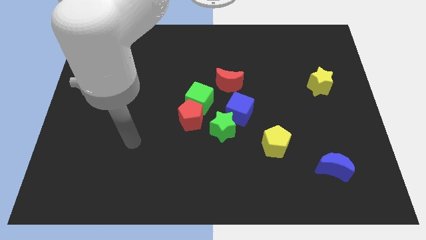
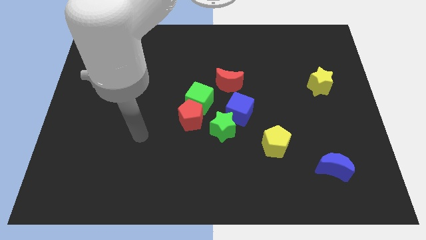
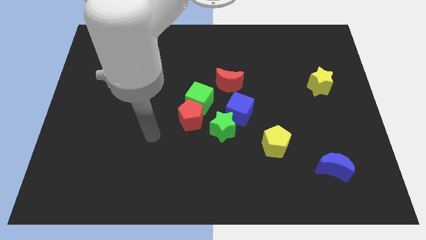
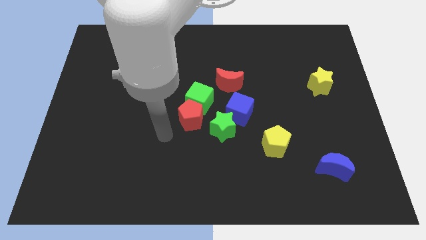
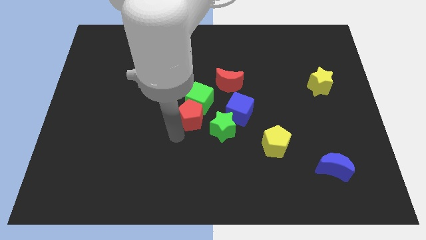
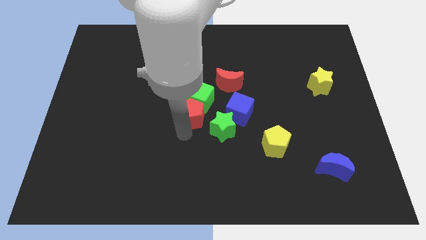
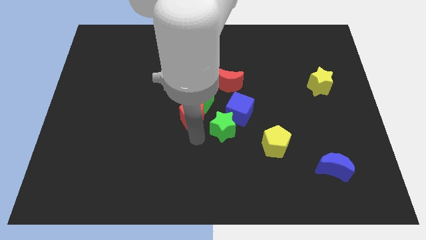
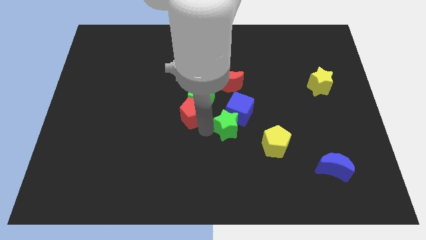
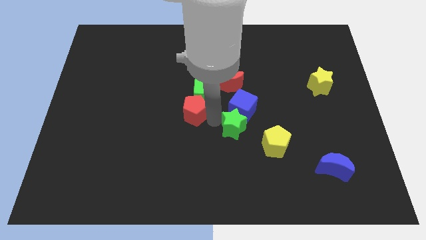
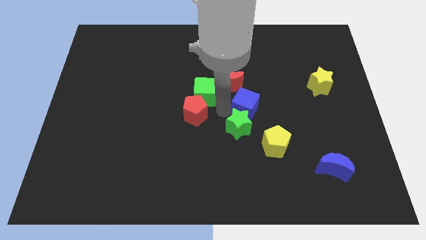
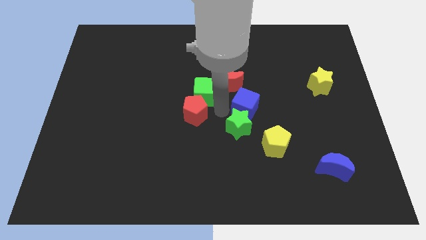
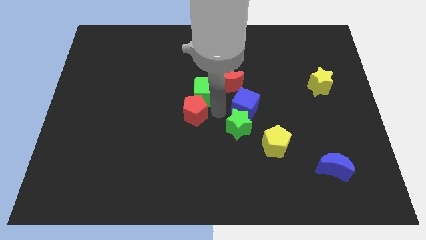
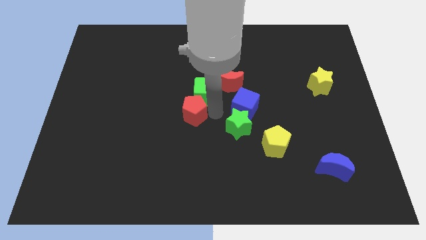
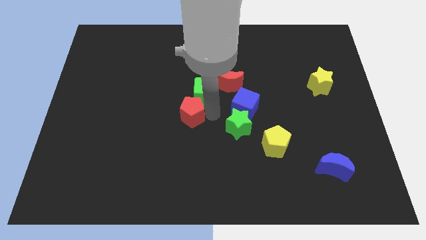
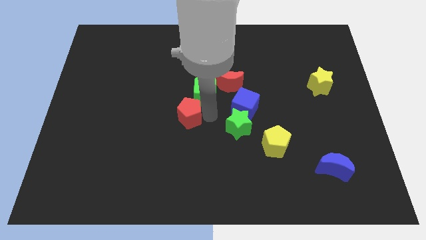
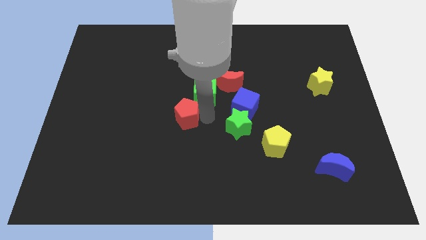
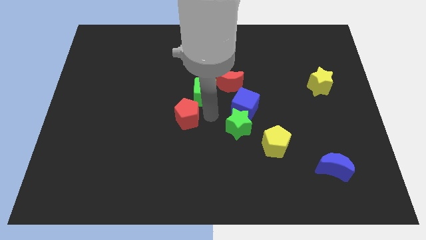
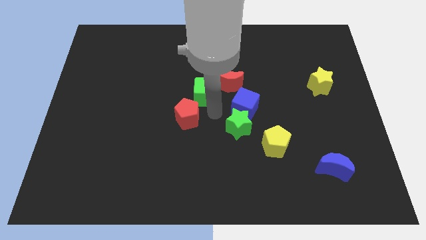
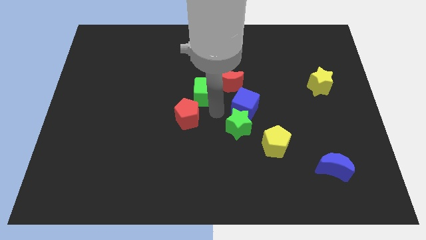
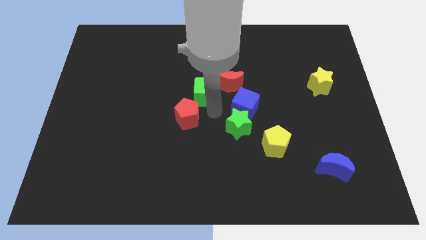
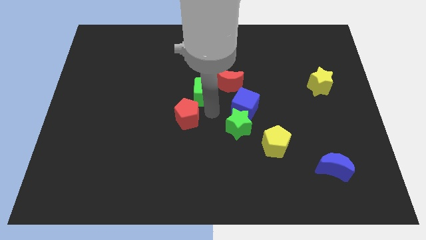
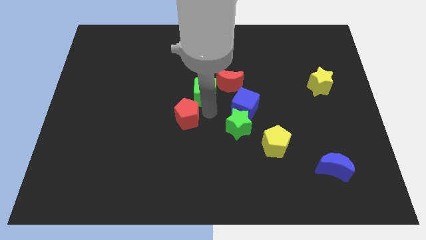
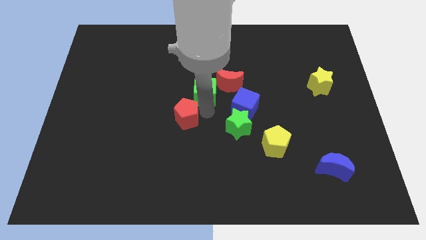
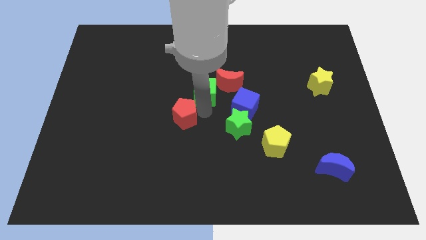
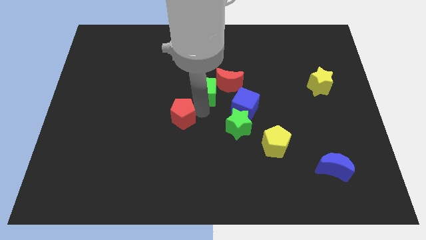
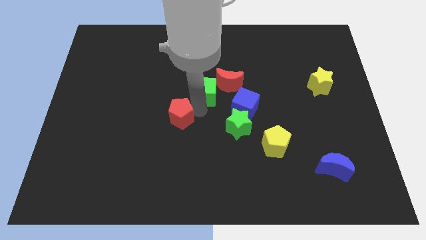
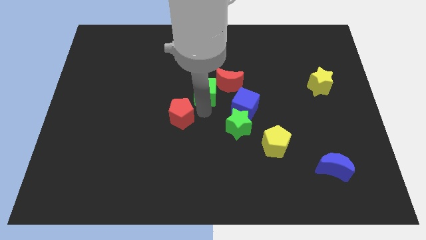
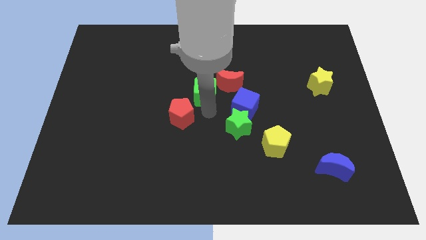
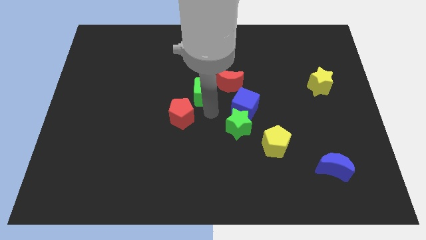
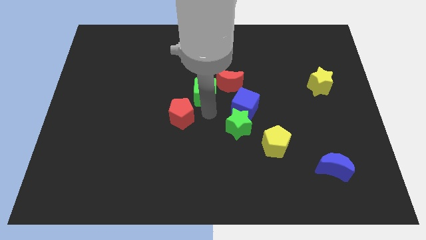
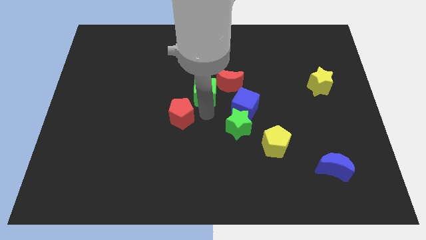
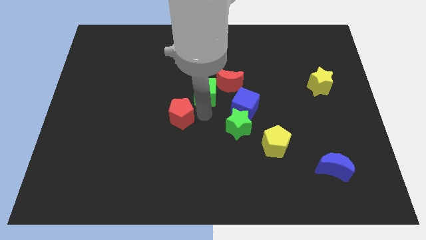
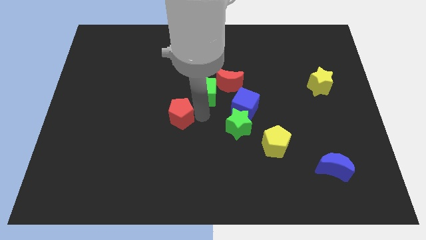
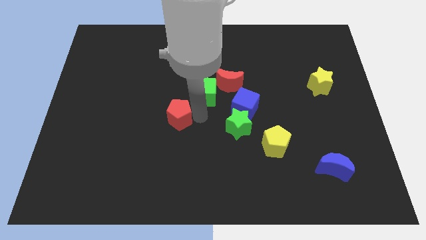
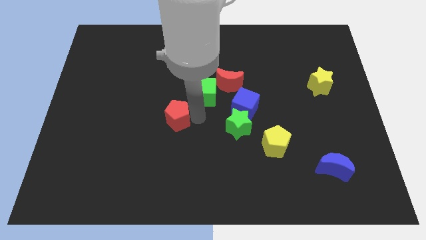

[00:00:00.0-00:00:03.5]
move the red pentagon away from the green cube and green star

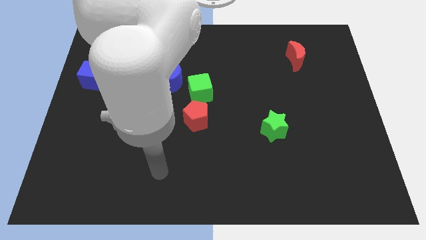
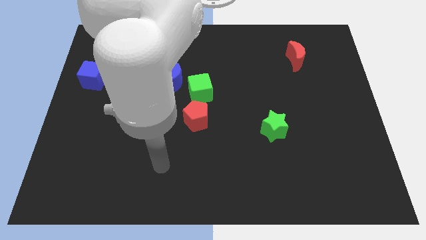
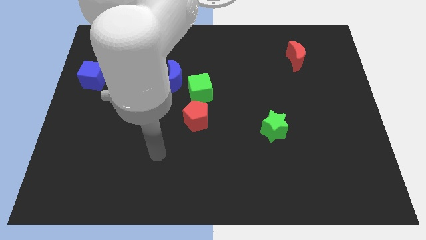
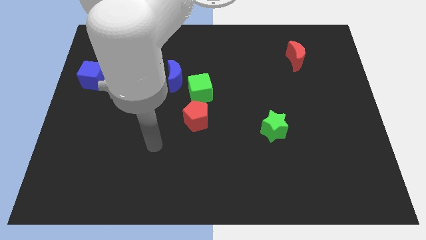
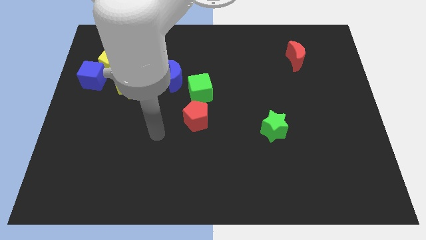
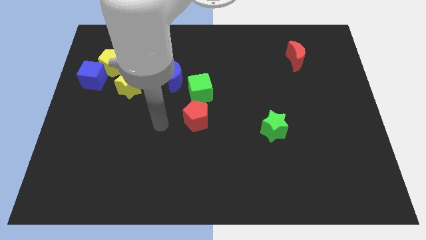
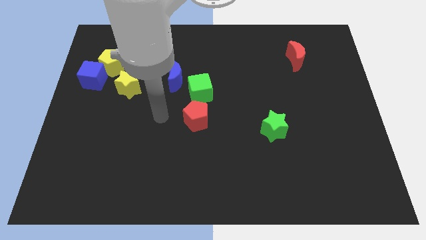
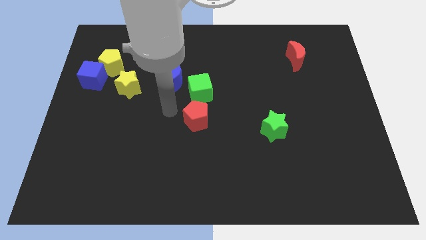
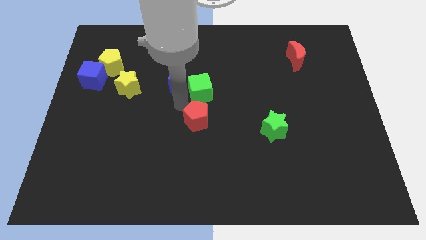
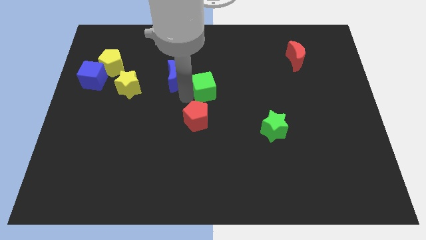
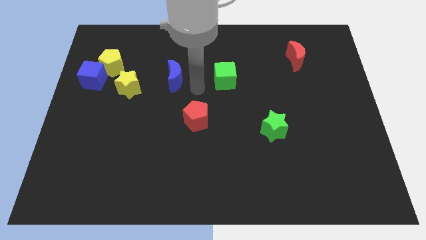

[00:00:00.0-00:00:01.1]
pull the blue moon apart from the green cube

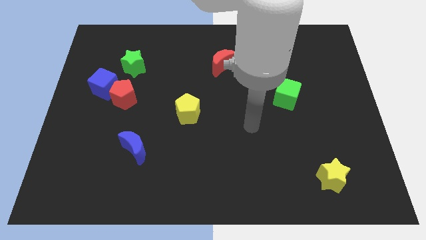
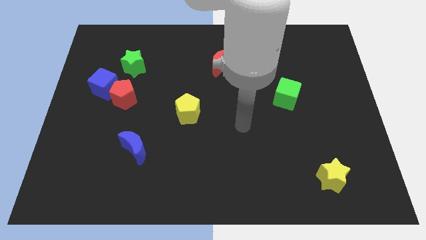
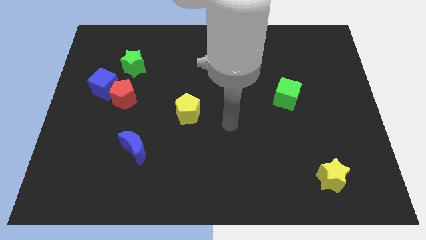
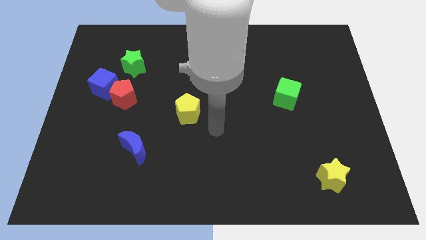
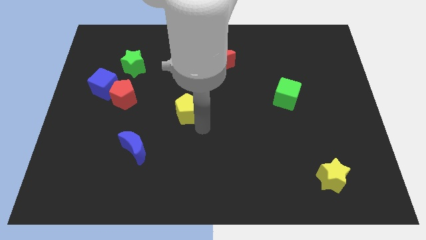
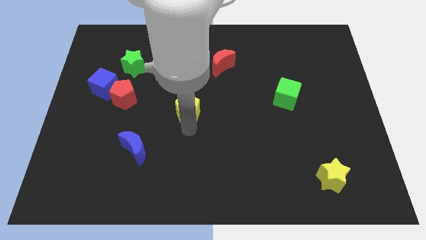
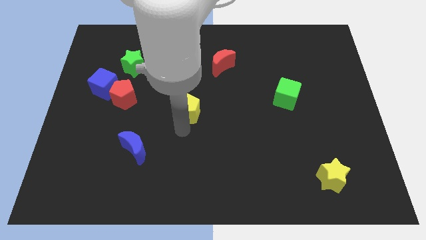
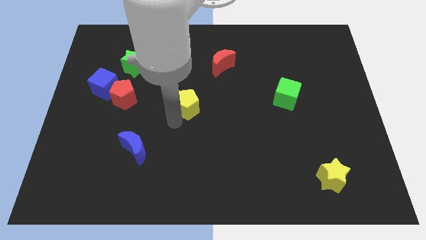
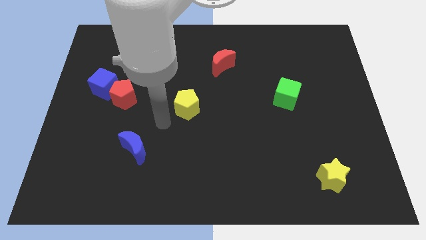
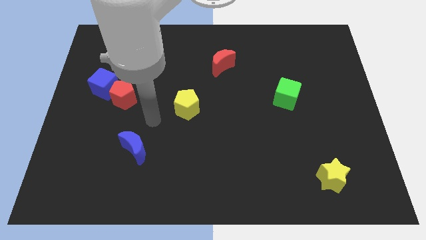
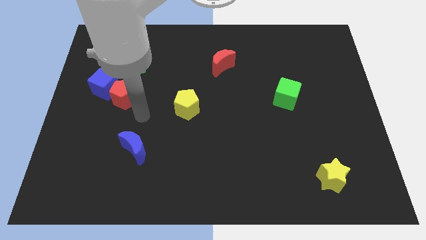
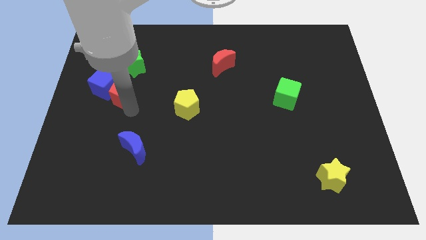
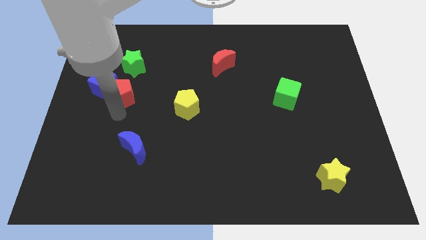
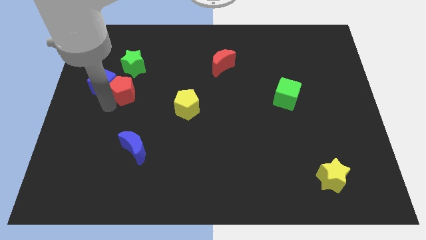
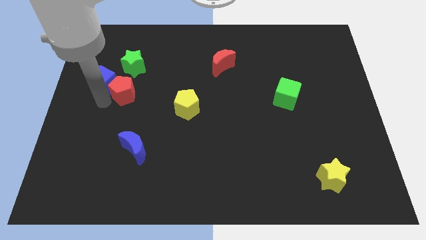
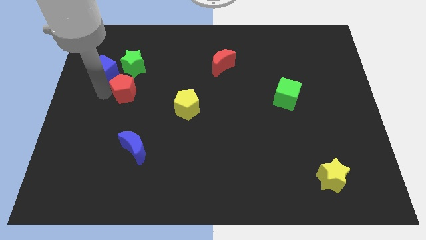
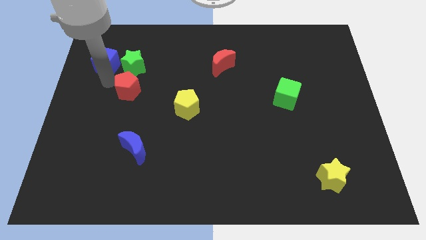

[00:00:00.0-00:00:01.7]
move the red pentagon away from the blue cube

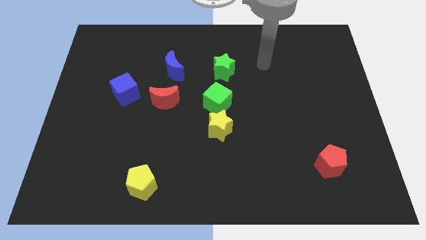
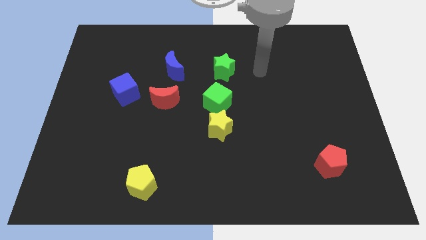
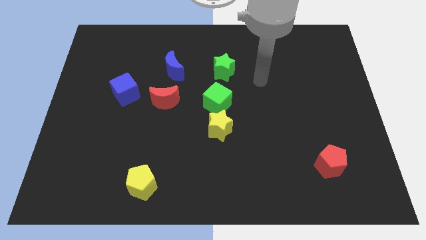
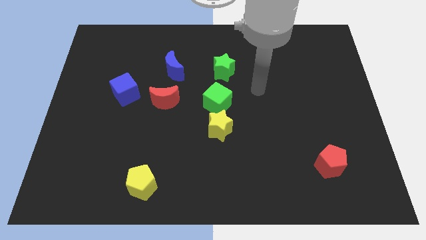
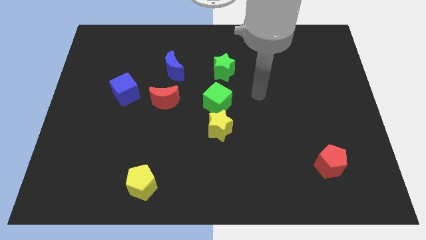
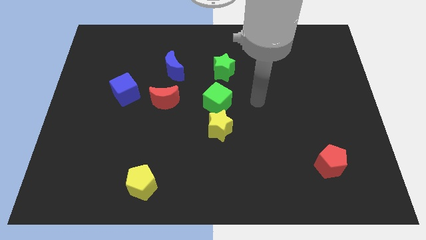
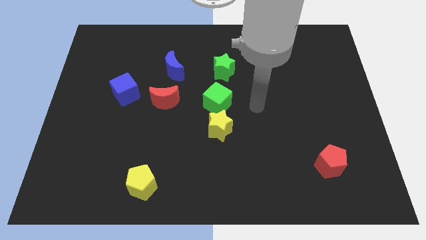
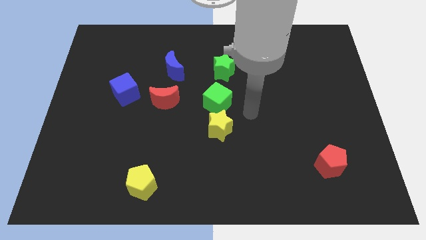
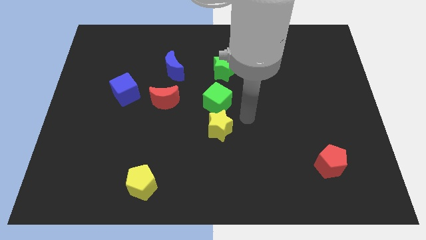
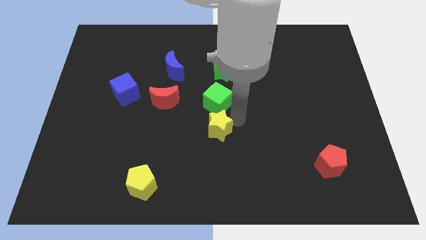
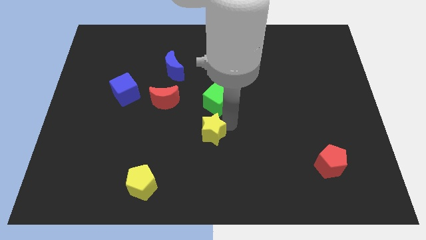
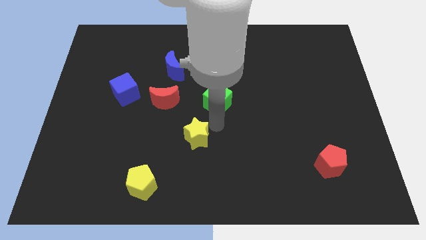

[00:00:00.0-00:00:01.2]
pull the green cube apart from the yellow star

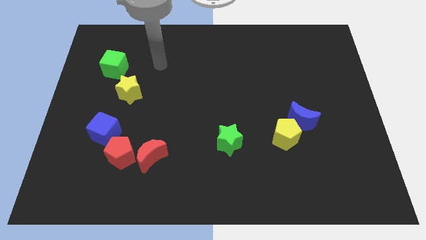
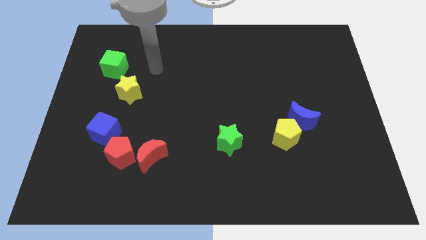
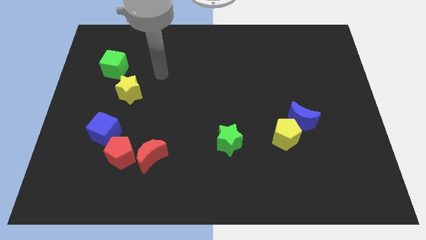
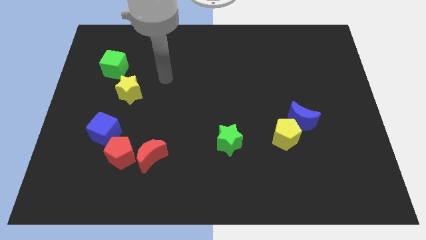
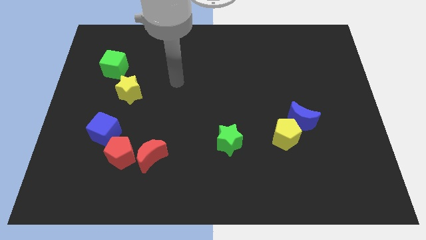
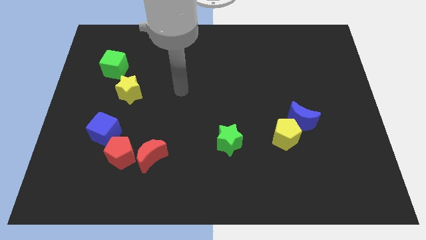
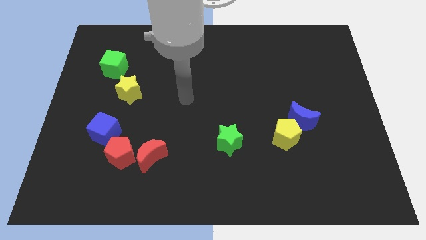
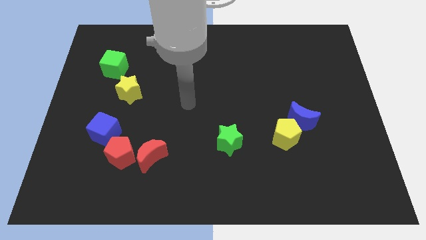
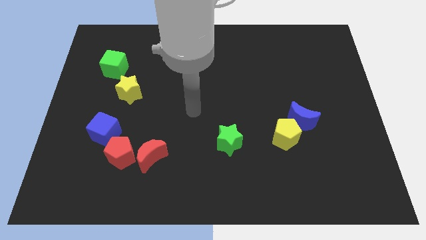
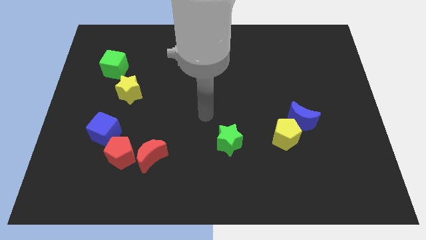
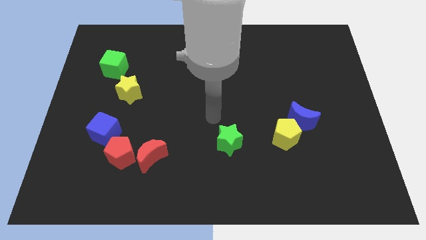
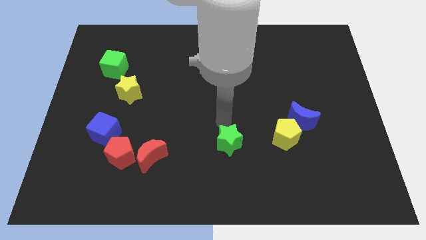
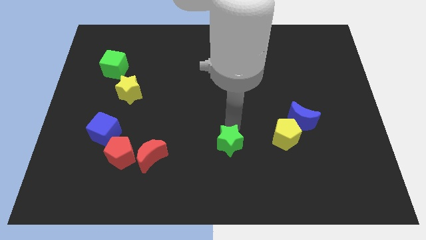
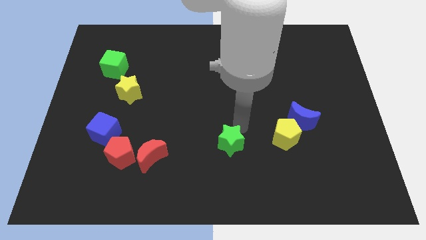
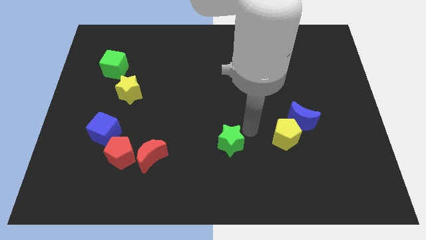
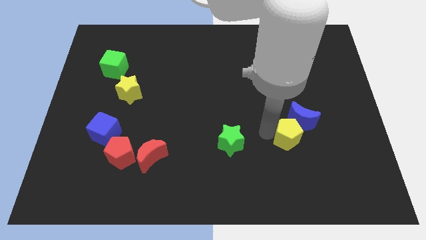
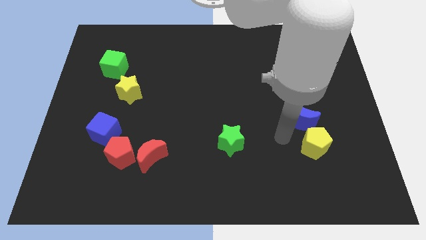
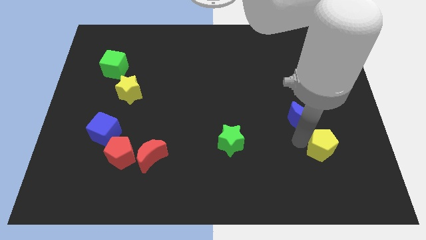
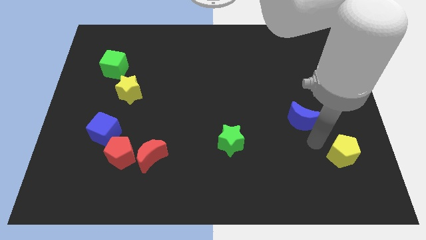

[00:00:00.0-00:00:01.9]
move the blue moon away from the yellow pentagon
